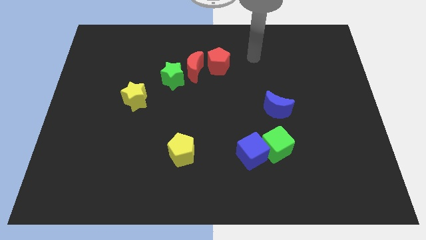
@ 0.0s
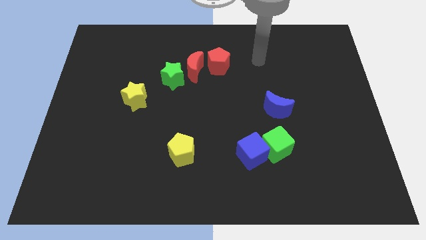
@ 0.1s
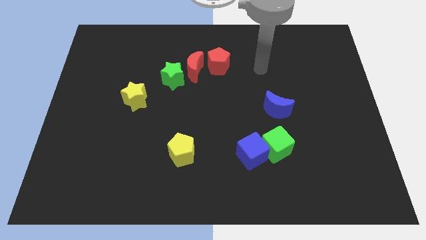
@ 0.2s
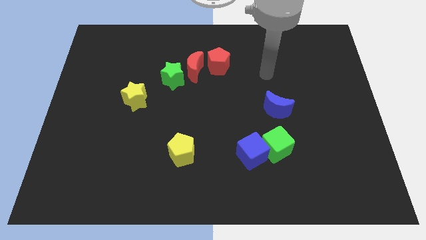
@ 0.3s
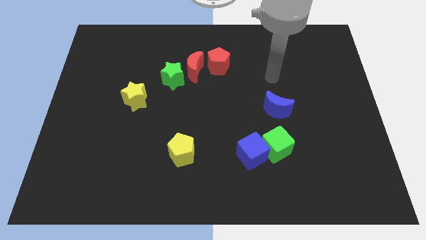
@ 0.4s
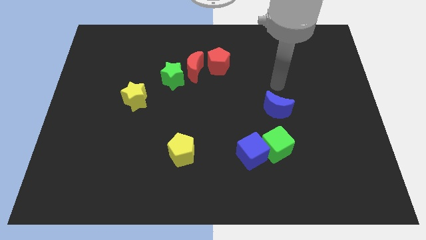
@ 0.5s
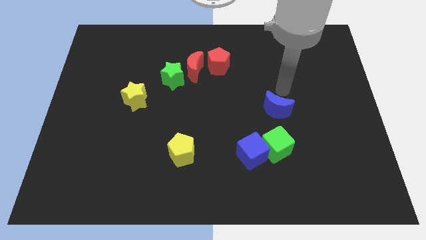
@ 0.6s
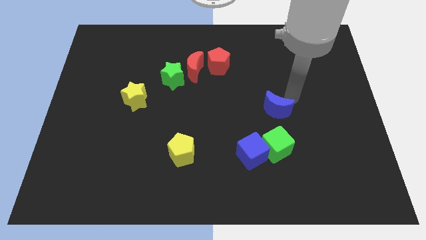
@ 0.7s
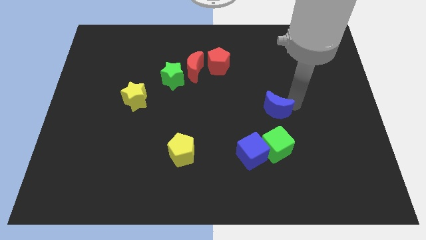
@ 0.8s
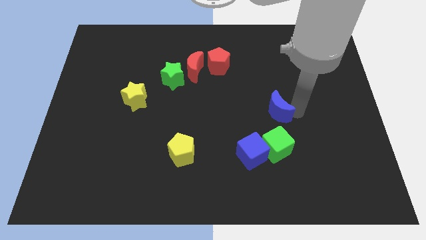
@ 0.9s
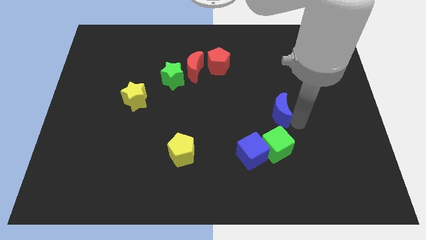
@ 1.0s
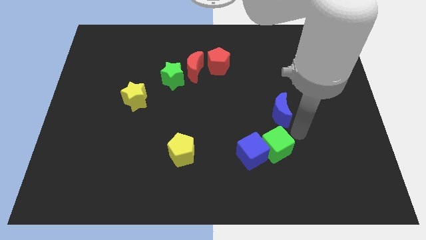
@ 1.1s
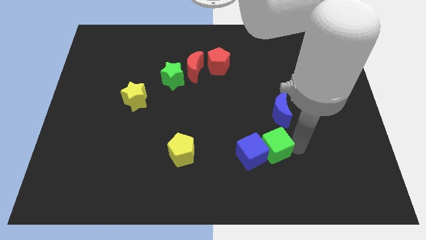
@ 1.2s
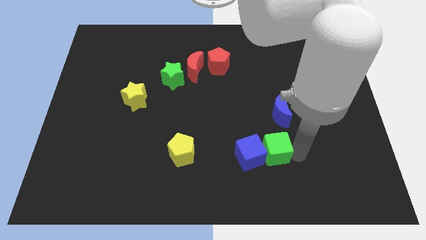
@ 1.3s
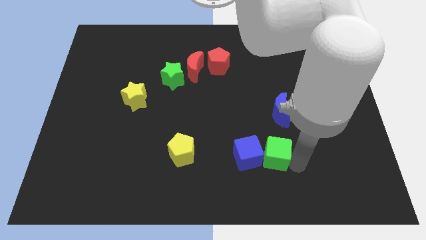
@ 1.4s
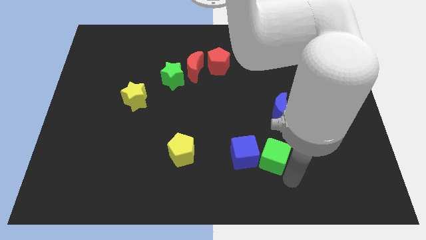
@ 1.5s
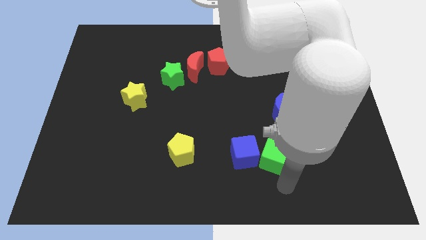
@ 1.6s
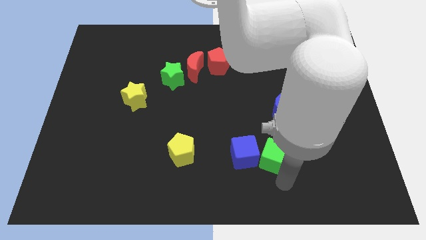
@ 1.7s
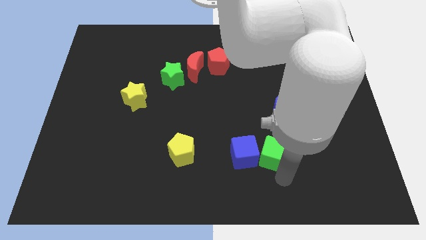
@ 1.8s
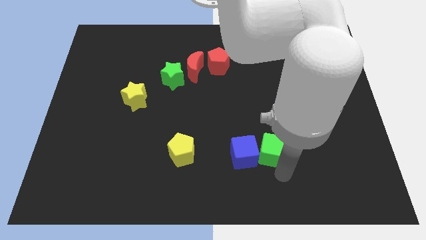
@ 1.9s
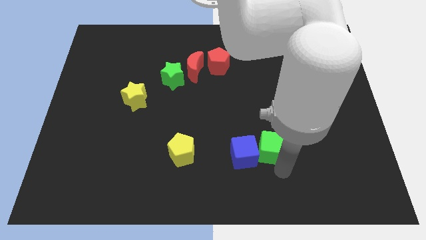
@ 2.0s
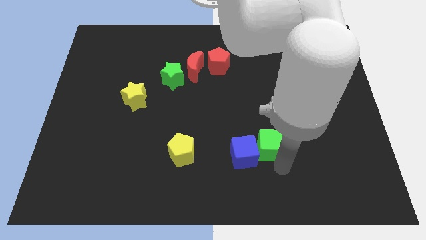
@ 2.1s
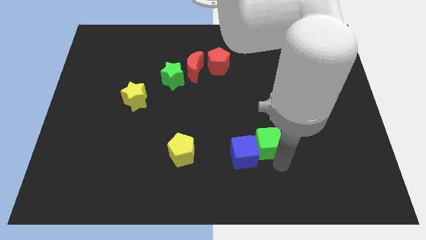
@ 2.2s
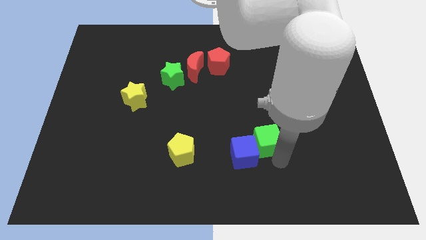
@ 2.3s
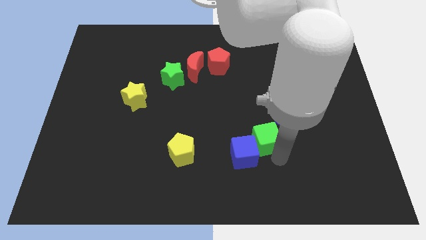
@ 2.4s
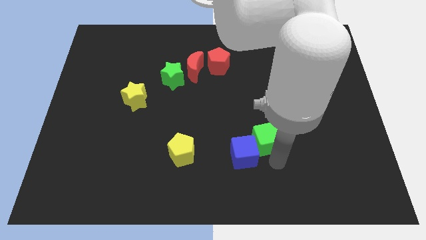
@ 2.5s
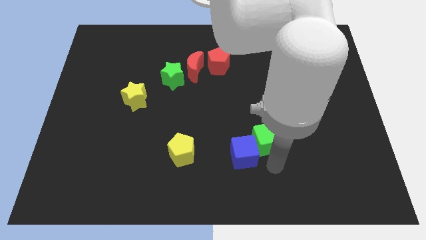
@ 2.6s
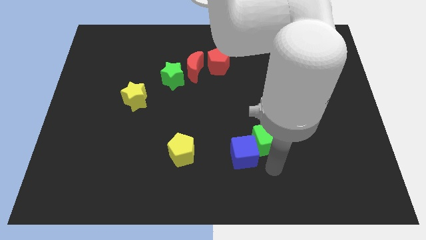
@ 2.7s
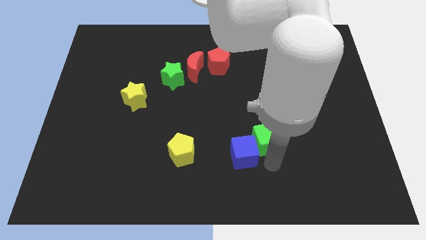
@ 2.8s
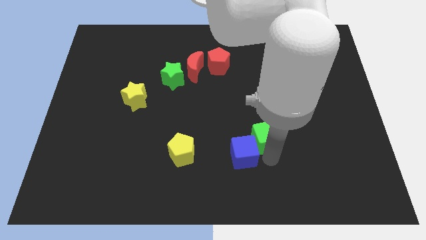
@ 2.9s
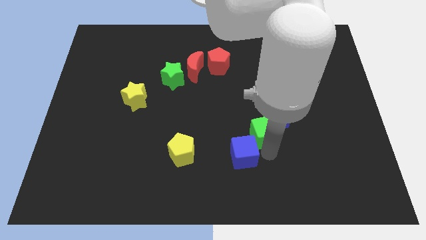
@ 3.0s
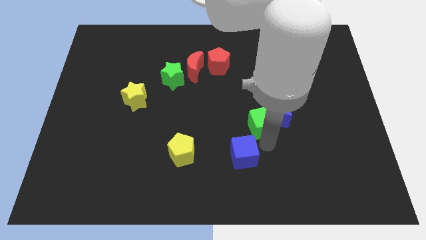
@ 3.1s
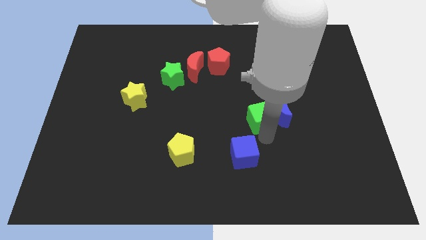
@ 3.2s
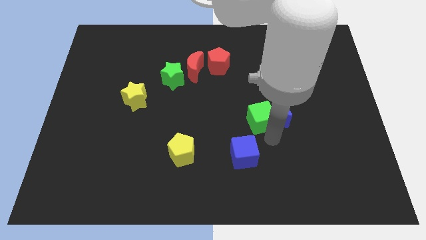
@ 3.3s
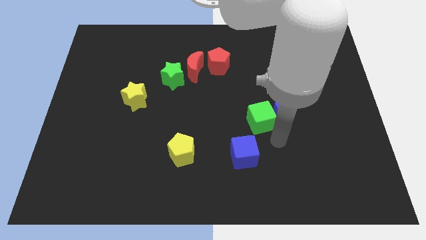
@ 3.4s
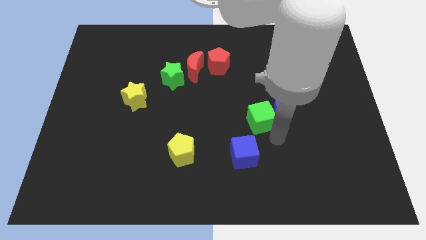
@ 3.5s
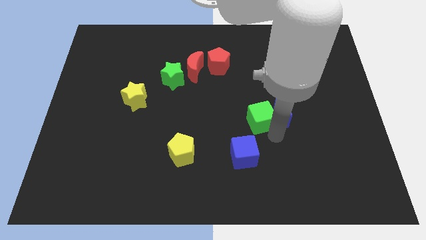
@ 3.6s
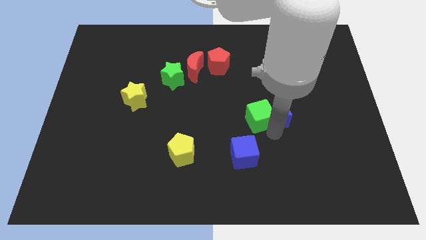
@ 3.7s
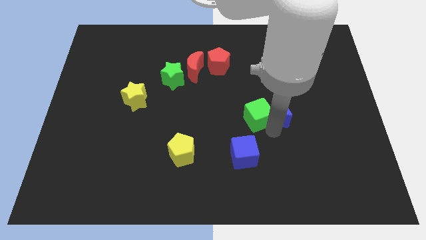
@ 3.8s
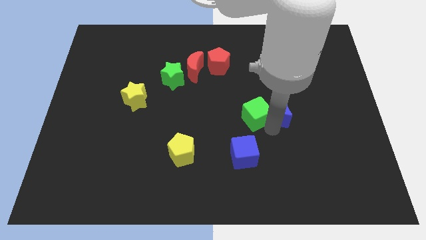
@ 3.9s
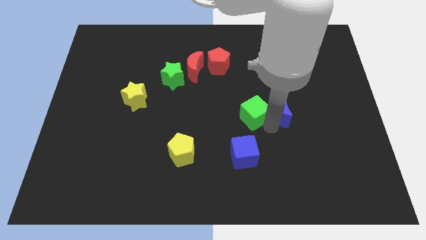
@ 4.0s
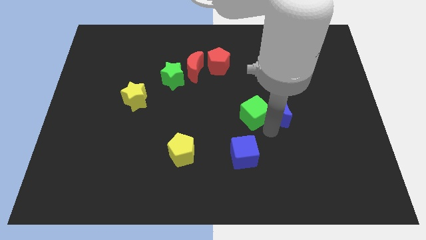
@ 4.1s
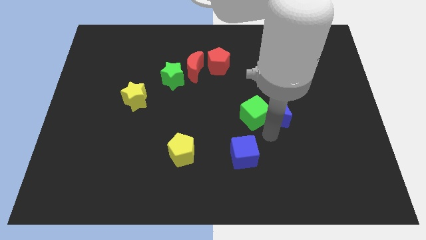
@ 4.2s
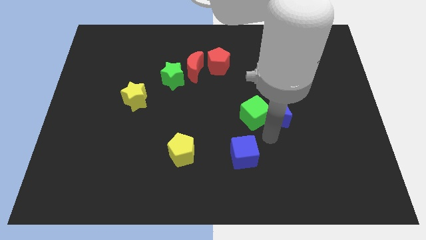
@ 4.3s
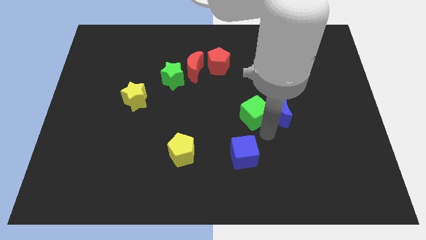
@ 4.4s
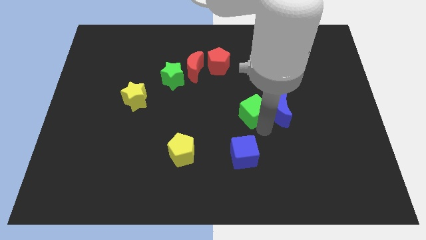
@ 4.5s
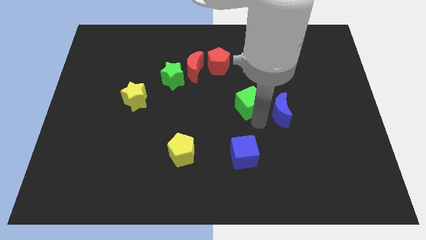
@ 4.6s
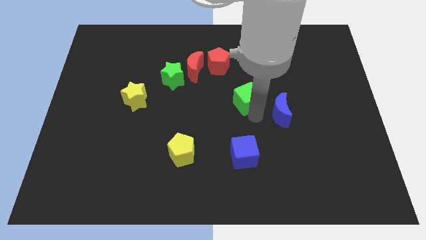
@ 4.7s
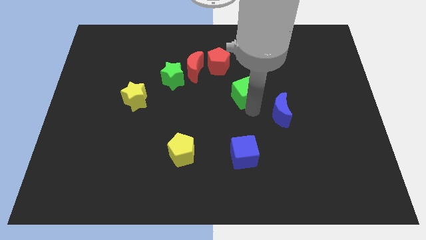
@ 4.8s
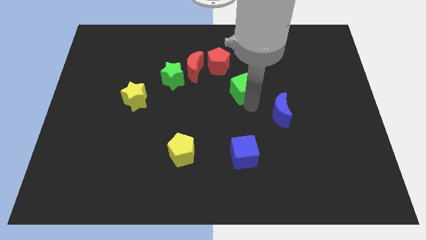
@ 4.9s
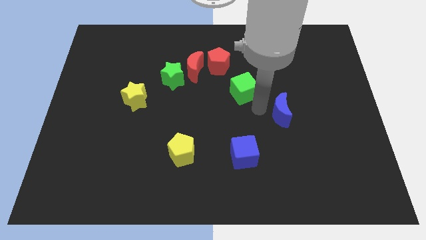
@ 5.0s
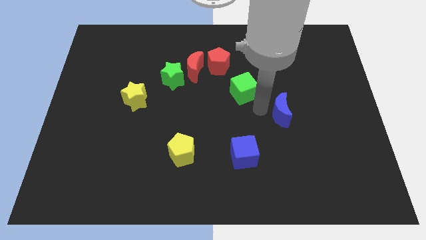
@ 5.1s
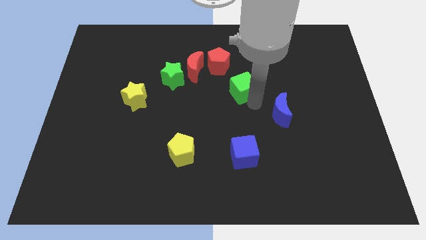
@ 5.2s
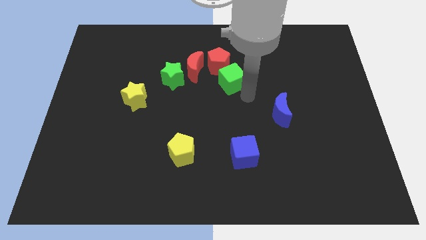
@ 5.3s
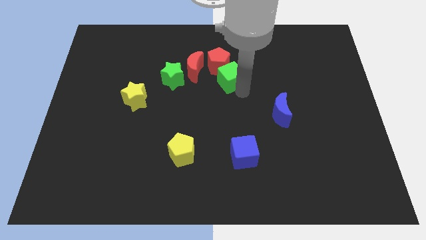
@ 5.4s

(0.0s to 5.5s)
move the green cube towards the red pentagon
